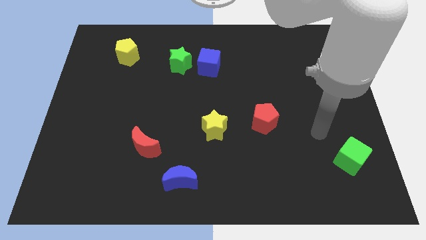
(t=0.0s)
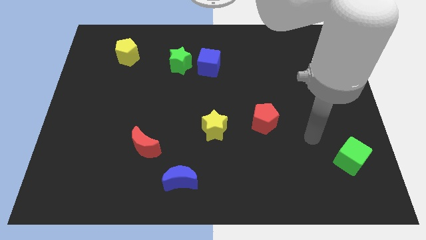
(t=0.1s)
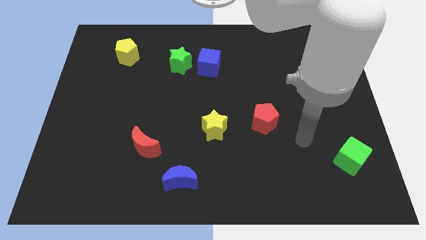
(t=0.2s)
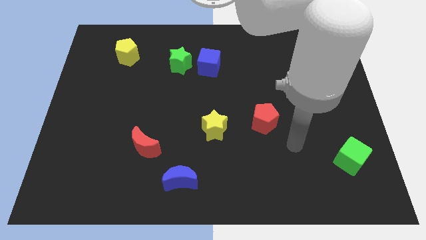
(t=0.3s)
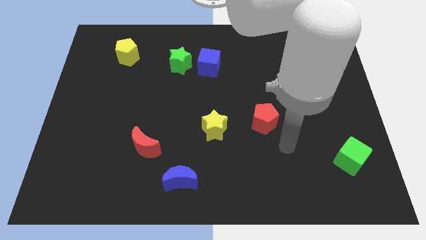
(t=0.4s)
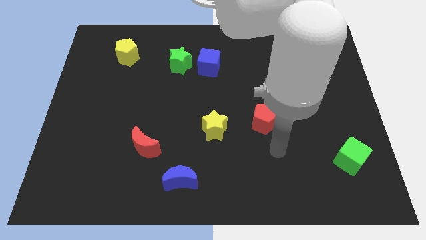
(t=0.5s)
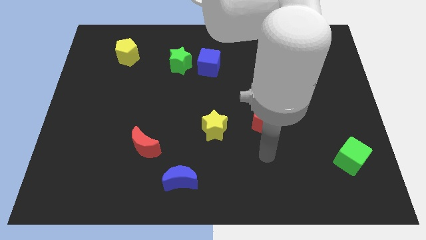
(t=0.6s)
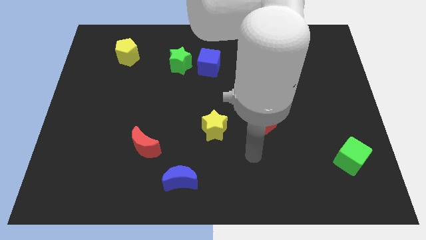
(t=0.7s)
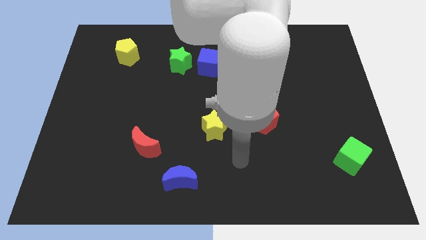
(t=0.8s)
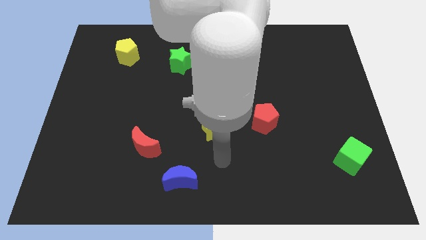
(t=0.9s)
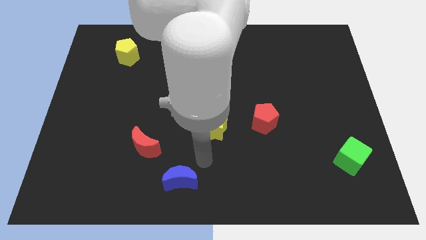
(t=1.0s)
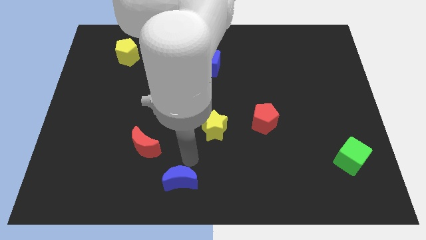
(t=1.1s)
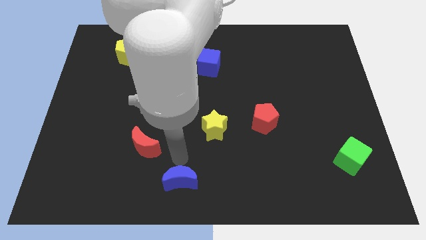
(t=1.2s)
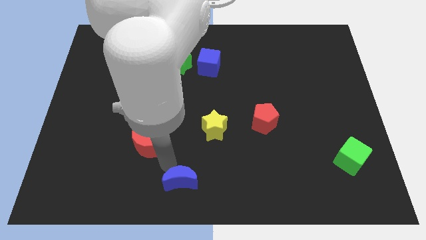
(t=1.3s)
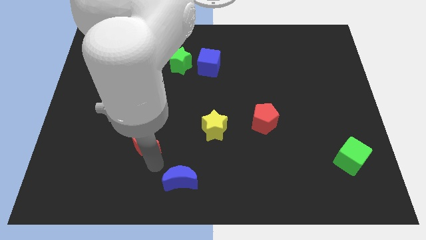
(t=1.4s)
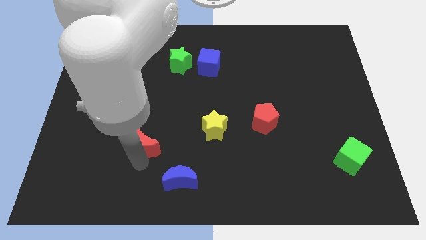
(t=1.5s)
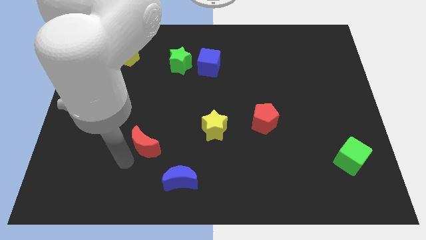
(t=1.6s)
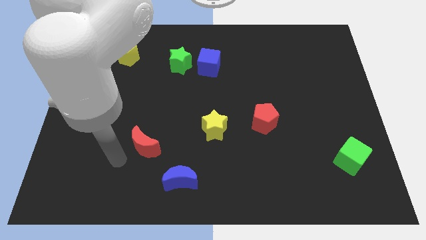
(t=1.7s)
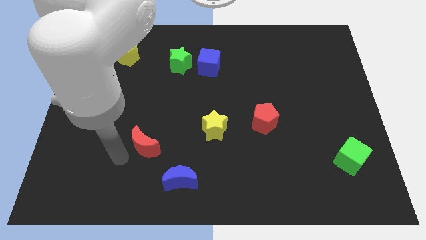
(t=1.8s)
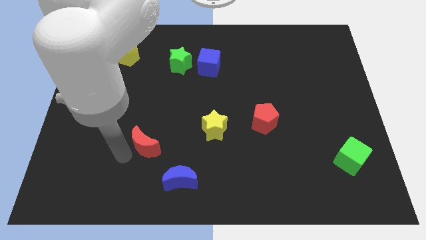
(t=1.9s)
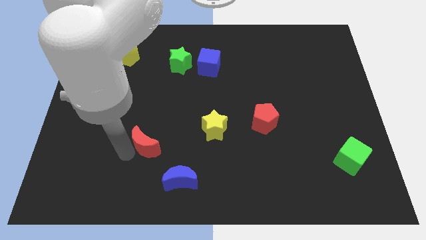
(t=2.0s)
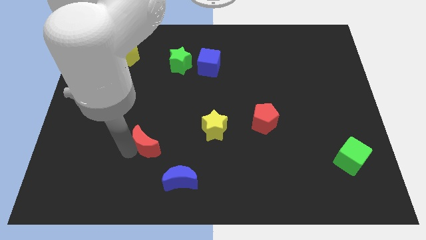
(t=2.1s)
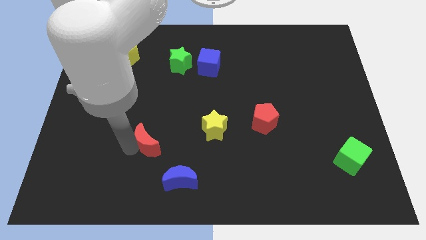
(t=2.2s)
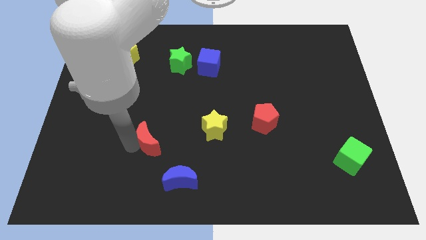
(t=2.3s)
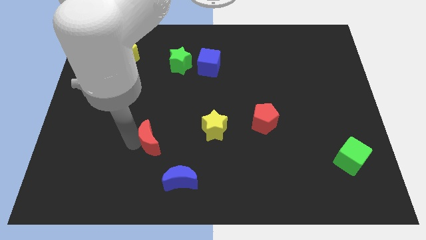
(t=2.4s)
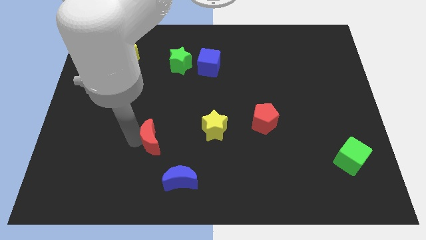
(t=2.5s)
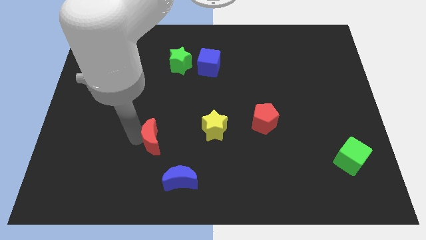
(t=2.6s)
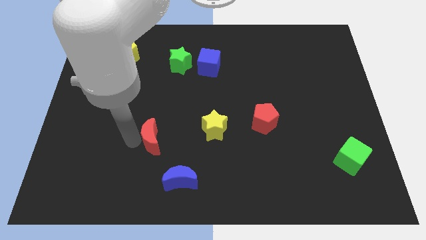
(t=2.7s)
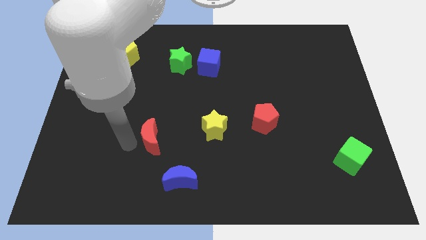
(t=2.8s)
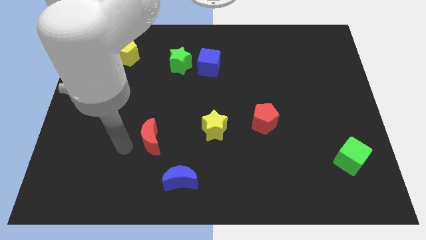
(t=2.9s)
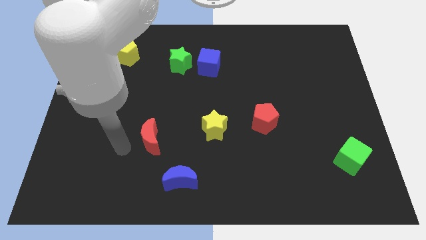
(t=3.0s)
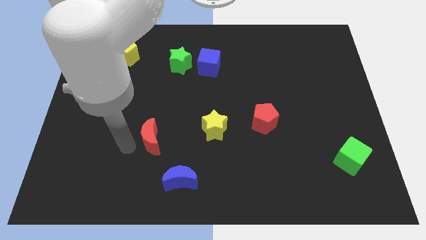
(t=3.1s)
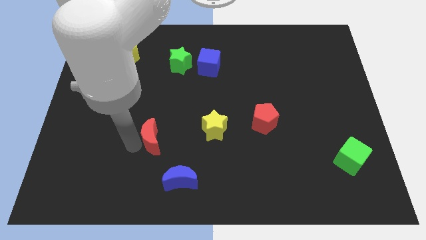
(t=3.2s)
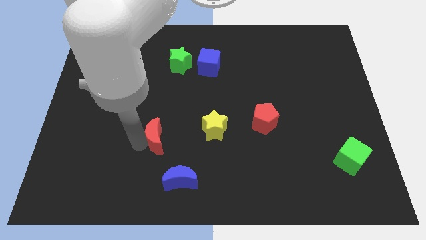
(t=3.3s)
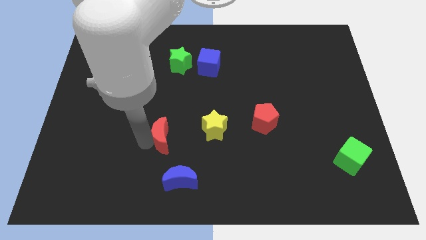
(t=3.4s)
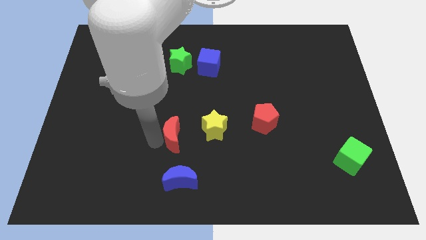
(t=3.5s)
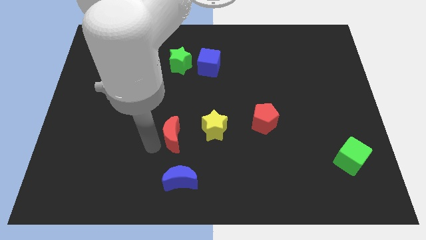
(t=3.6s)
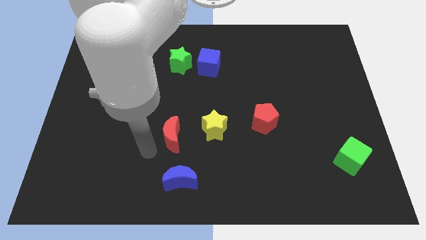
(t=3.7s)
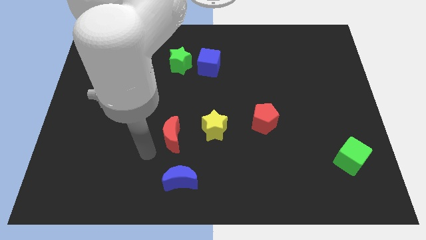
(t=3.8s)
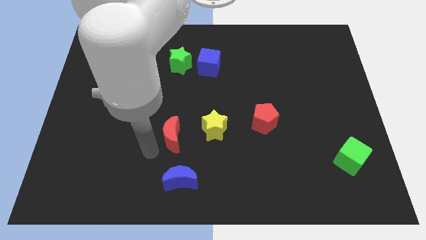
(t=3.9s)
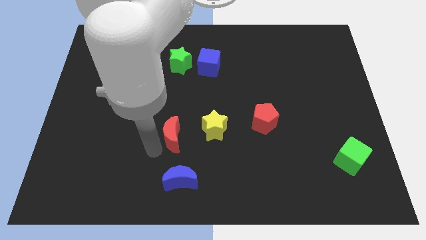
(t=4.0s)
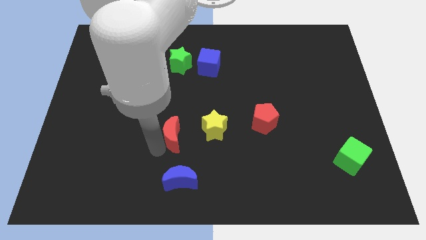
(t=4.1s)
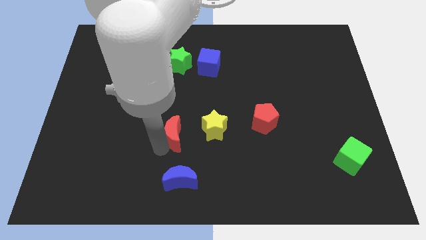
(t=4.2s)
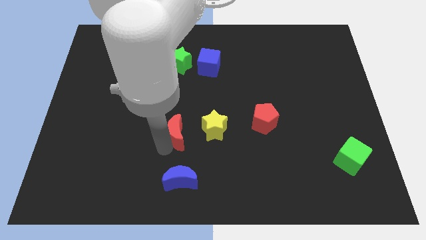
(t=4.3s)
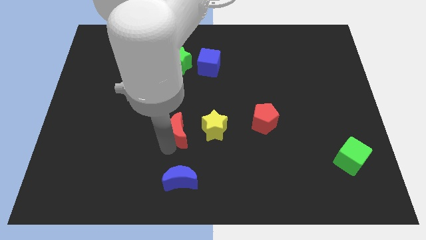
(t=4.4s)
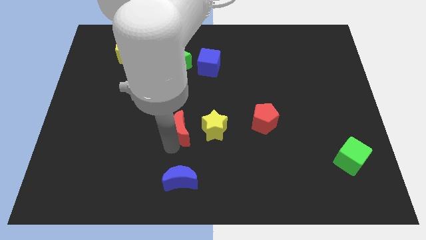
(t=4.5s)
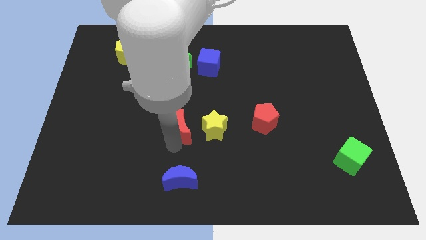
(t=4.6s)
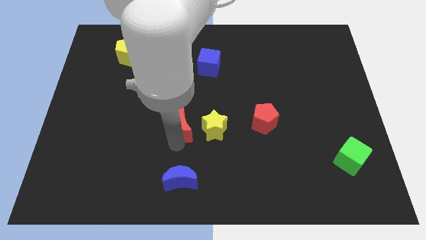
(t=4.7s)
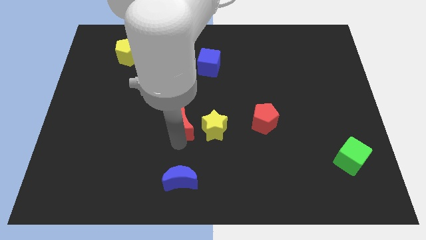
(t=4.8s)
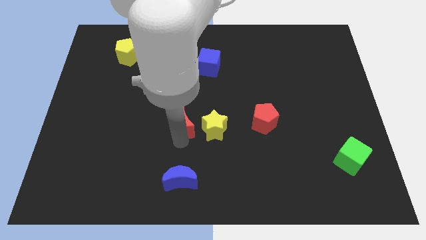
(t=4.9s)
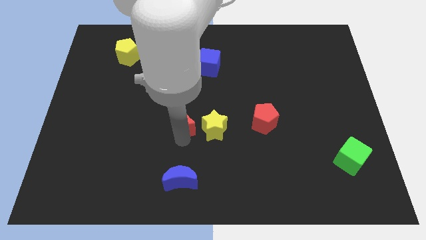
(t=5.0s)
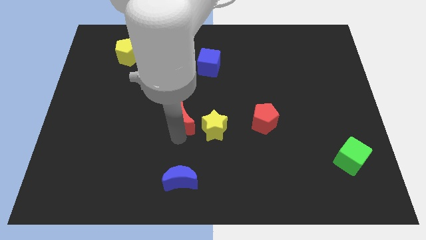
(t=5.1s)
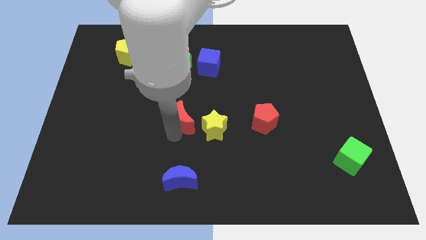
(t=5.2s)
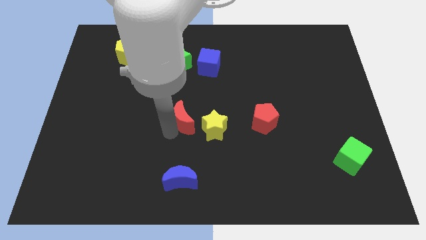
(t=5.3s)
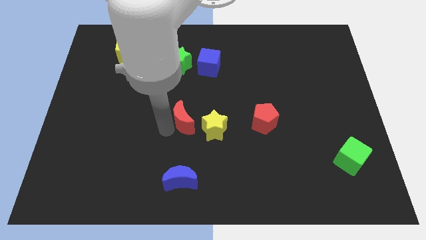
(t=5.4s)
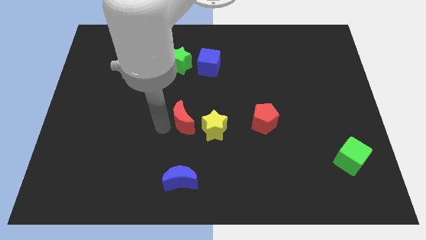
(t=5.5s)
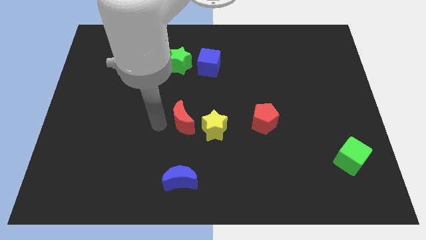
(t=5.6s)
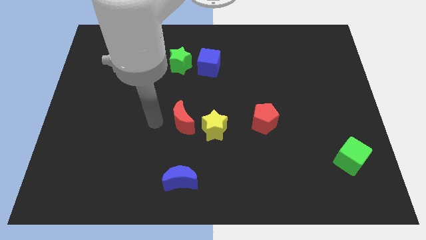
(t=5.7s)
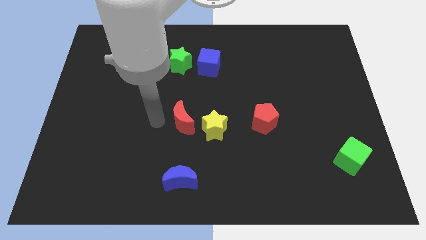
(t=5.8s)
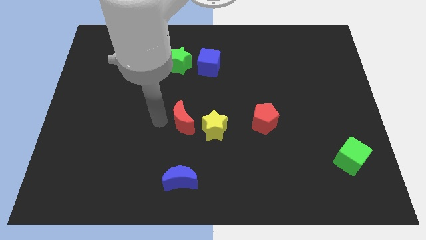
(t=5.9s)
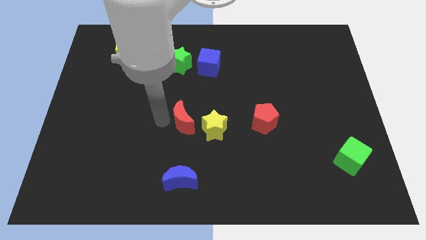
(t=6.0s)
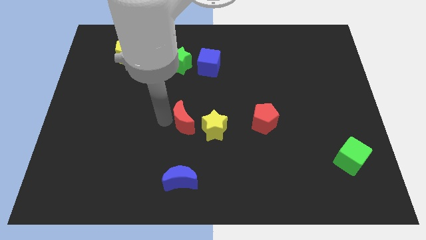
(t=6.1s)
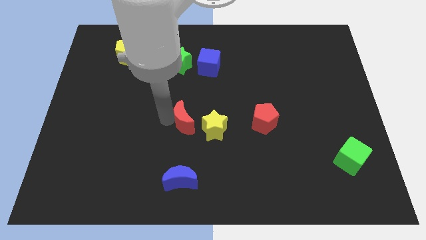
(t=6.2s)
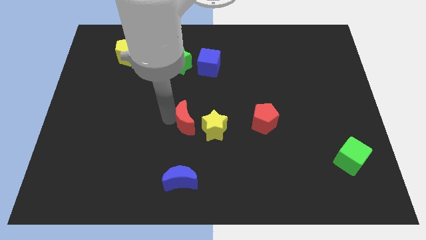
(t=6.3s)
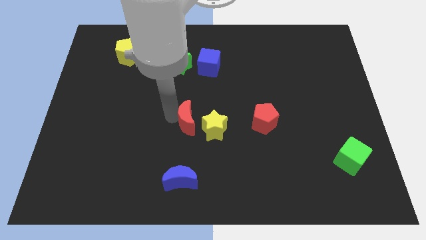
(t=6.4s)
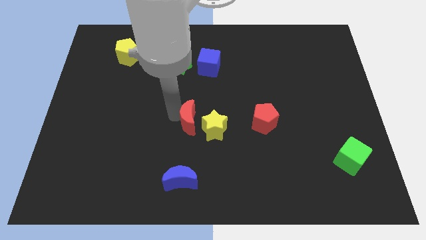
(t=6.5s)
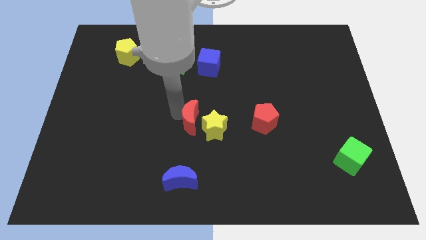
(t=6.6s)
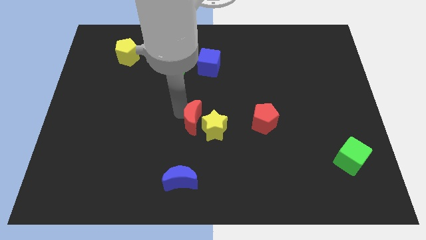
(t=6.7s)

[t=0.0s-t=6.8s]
move the red moon to the left side of the red pentagon
